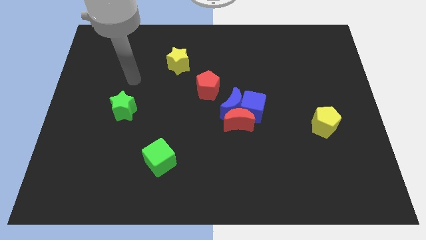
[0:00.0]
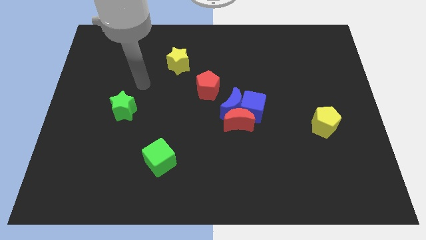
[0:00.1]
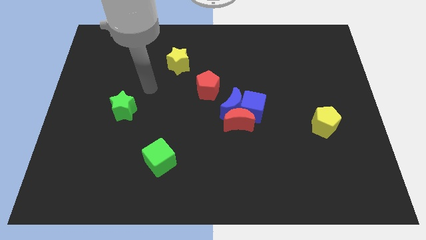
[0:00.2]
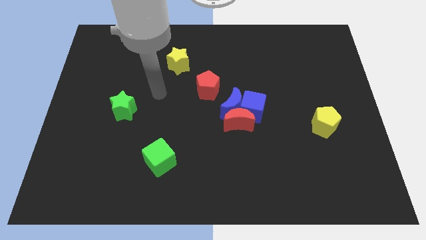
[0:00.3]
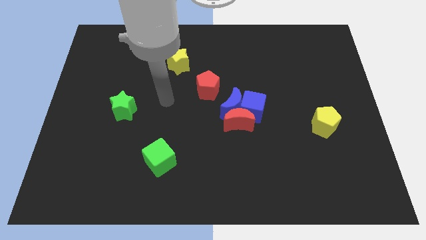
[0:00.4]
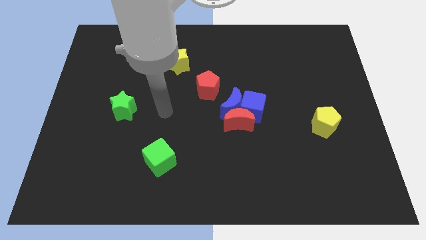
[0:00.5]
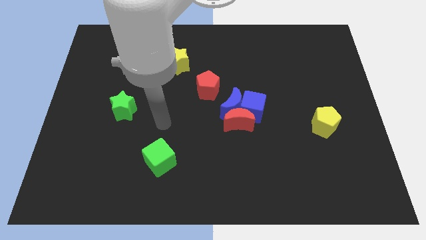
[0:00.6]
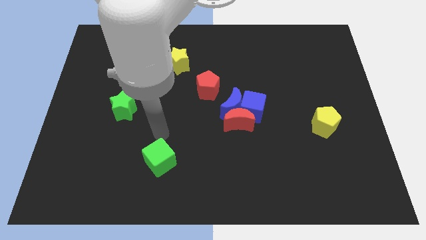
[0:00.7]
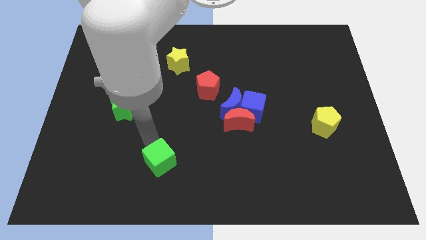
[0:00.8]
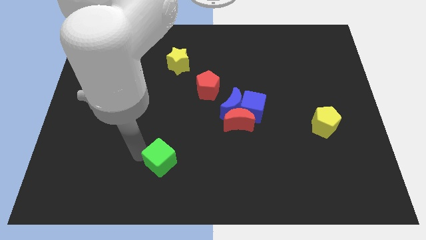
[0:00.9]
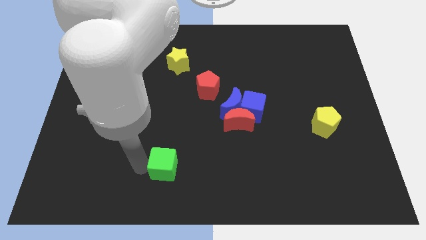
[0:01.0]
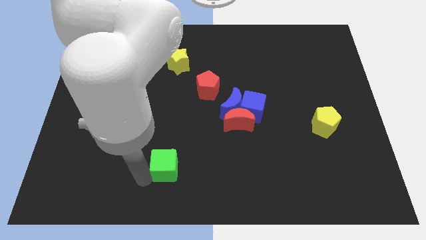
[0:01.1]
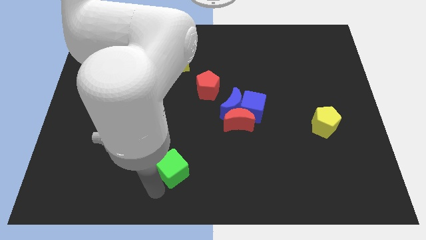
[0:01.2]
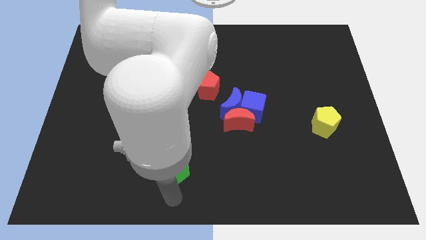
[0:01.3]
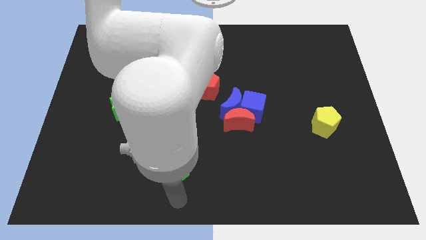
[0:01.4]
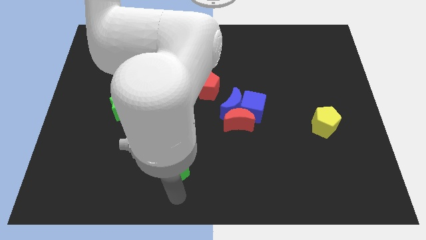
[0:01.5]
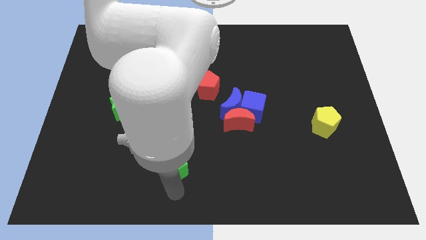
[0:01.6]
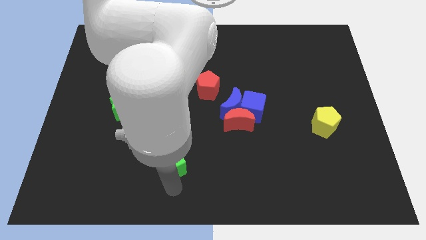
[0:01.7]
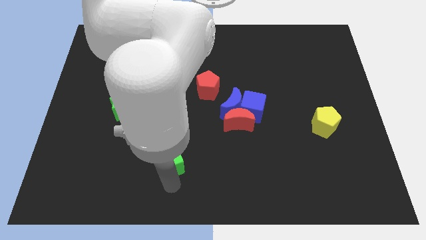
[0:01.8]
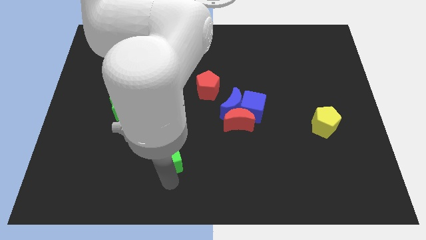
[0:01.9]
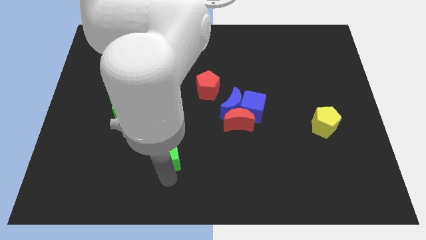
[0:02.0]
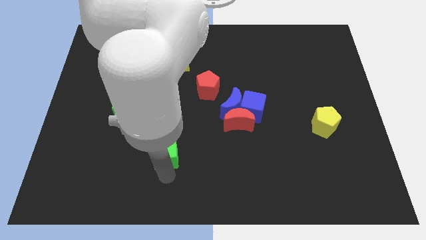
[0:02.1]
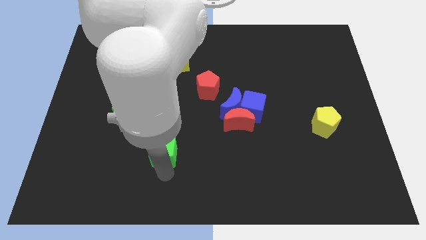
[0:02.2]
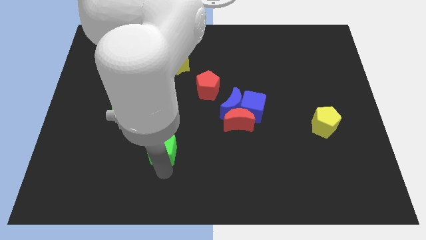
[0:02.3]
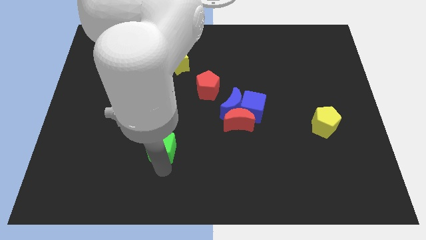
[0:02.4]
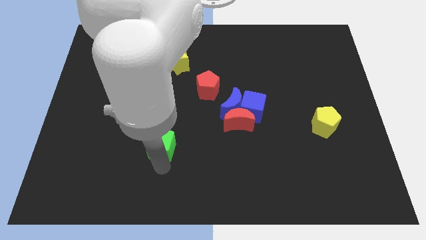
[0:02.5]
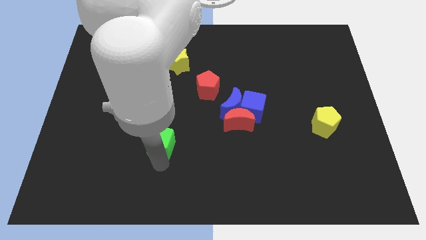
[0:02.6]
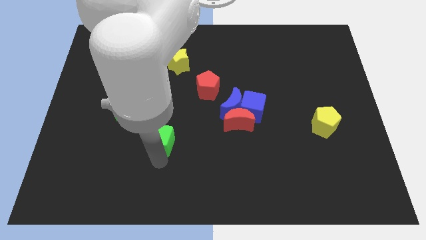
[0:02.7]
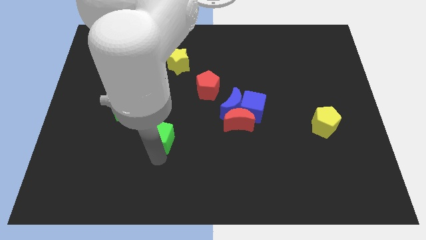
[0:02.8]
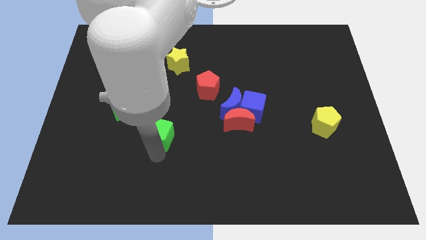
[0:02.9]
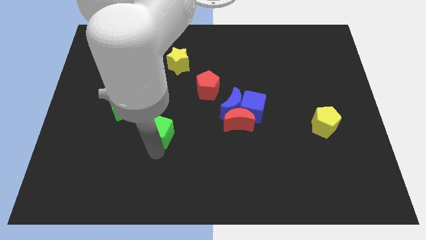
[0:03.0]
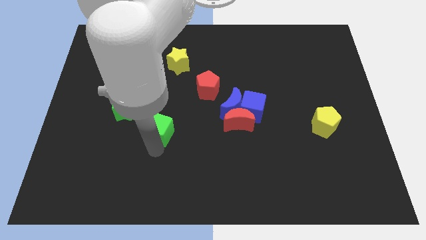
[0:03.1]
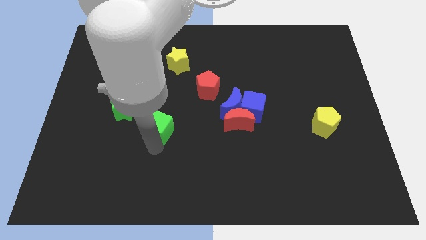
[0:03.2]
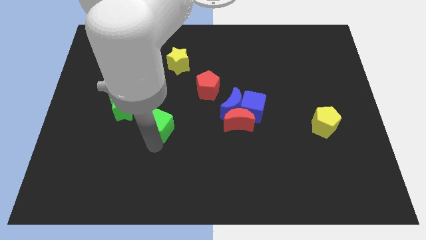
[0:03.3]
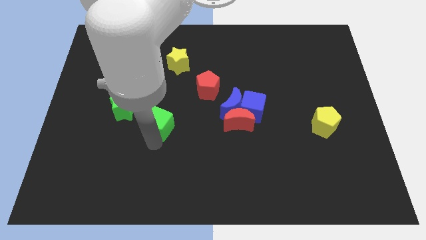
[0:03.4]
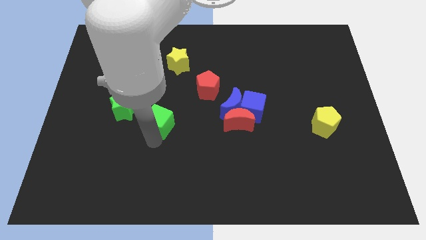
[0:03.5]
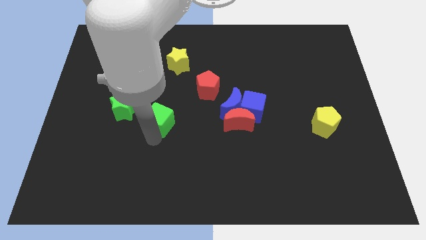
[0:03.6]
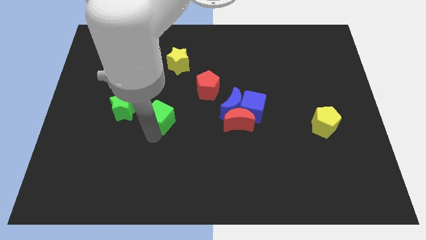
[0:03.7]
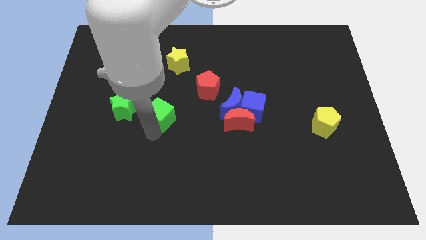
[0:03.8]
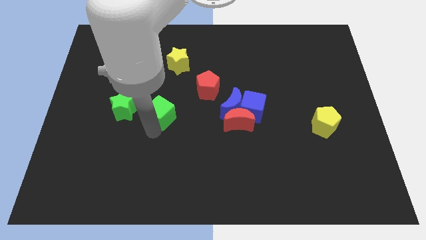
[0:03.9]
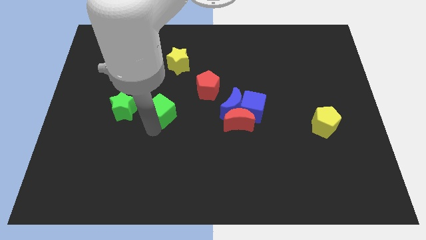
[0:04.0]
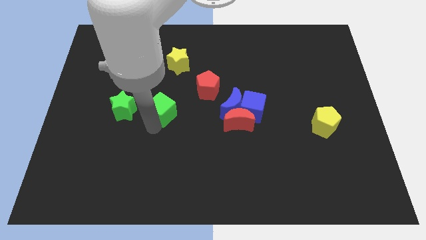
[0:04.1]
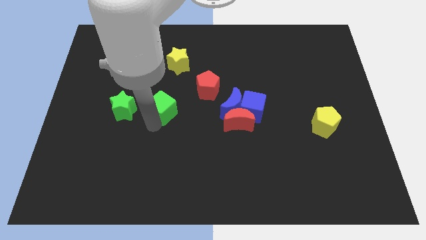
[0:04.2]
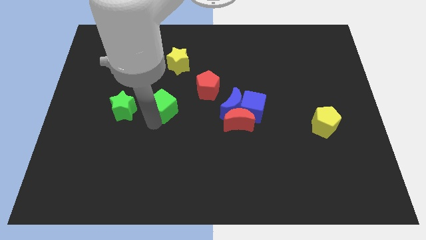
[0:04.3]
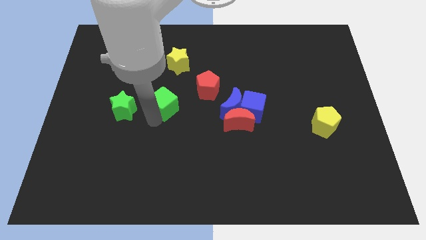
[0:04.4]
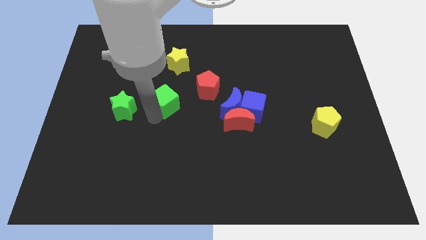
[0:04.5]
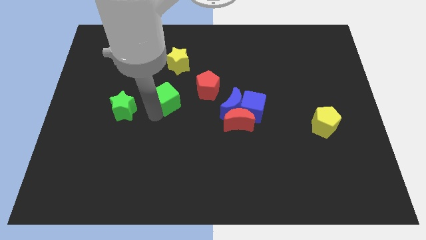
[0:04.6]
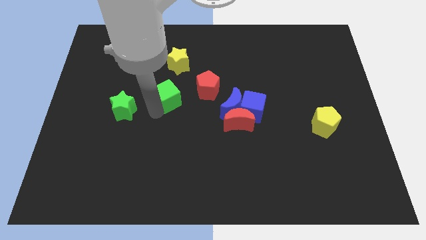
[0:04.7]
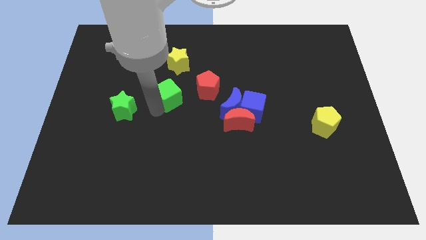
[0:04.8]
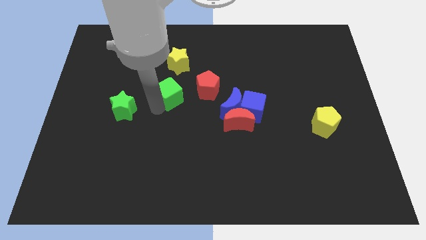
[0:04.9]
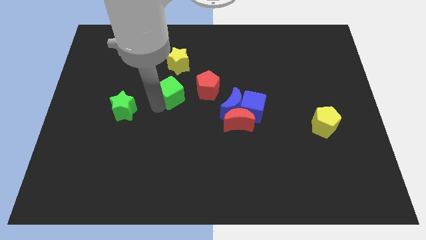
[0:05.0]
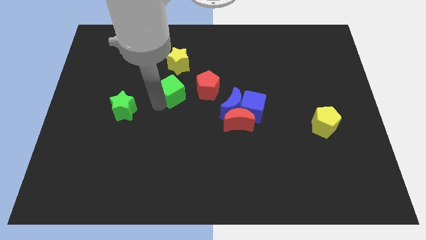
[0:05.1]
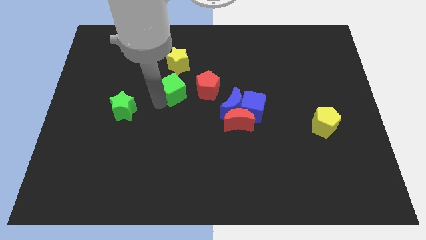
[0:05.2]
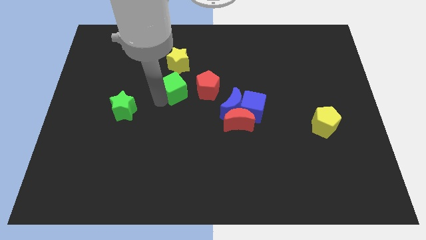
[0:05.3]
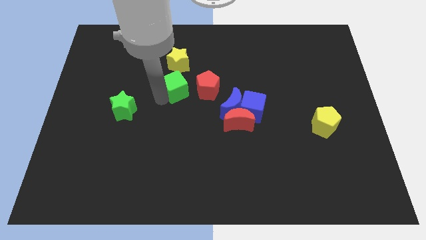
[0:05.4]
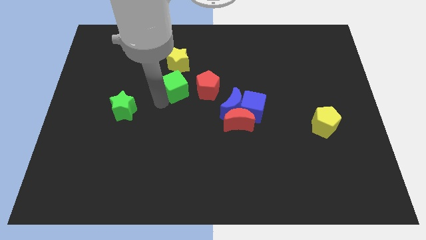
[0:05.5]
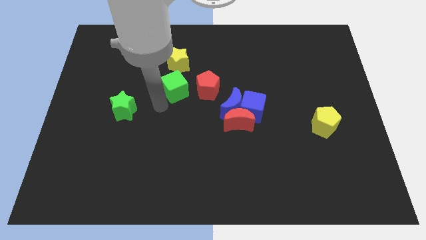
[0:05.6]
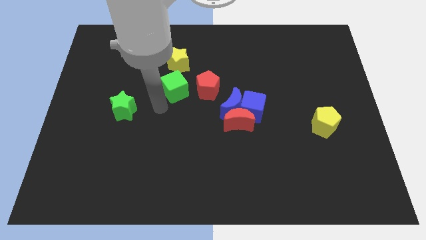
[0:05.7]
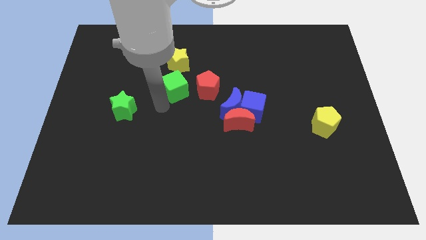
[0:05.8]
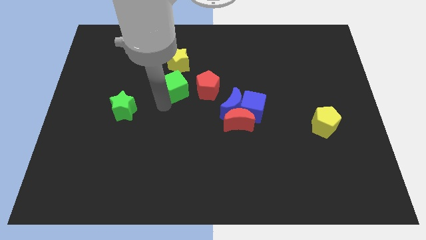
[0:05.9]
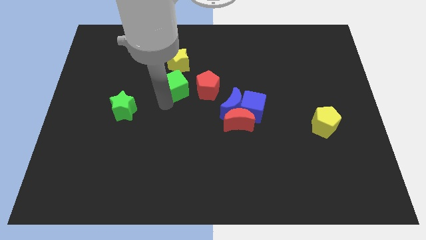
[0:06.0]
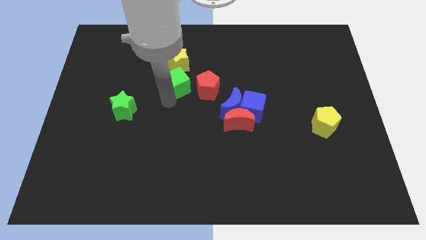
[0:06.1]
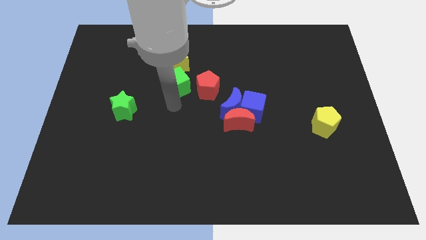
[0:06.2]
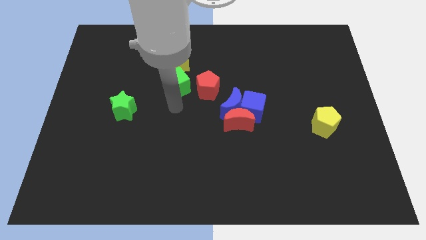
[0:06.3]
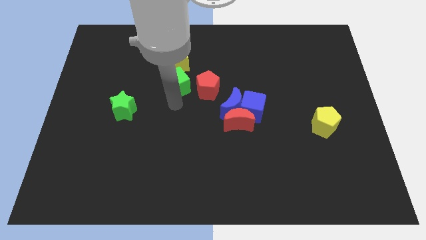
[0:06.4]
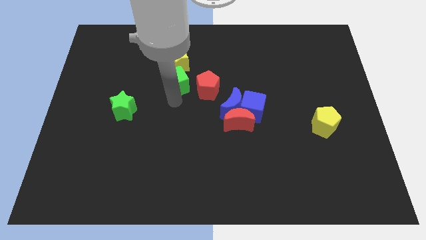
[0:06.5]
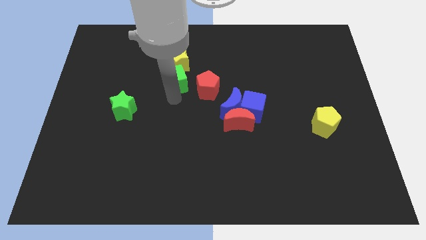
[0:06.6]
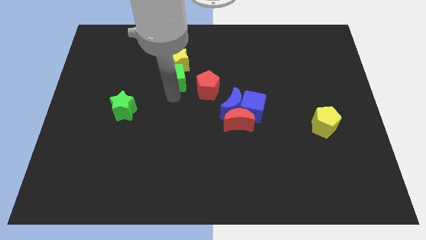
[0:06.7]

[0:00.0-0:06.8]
slide the green cube to the yellow star

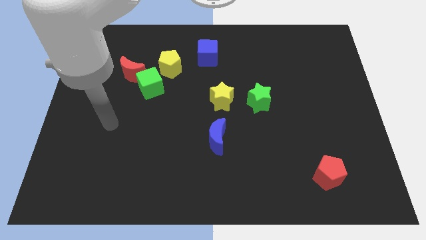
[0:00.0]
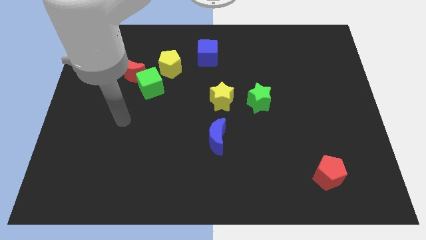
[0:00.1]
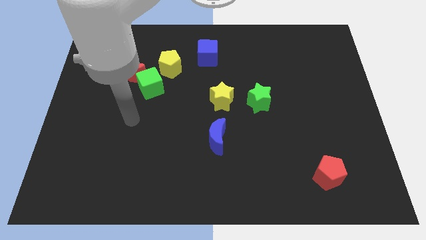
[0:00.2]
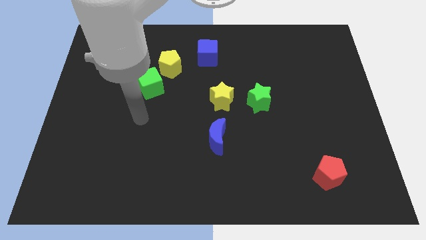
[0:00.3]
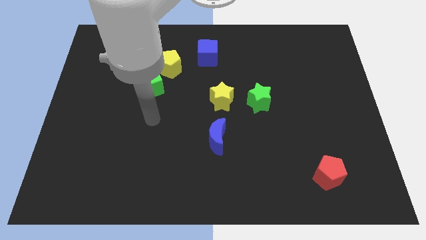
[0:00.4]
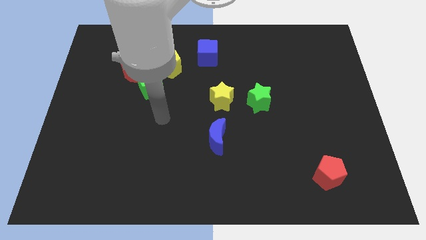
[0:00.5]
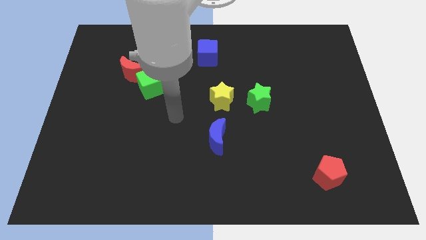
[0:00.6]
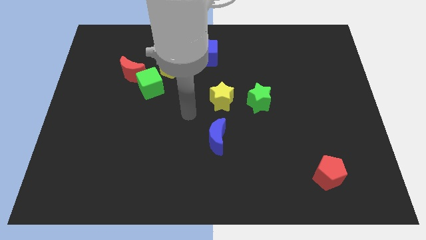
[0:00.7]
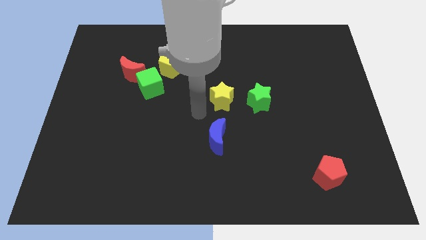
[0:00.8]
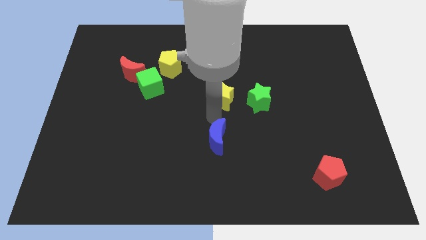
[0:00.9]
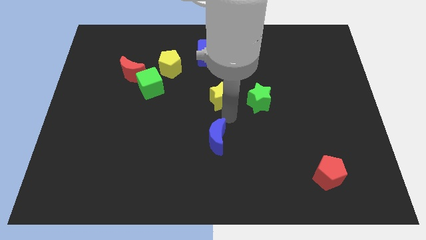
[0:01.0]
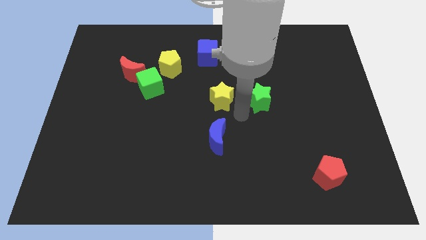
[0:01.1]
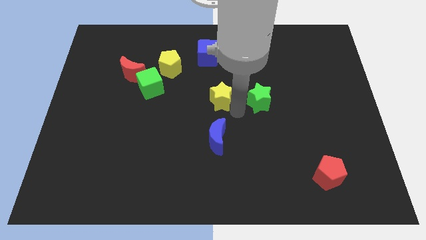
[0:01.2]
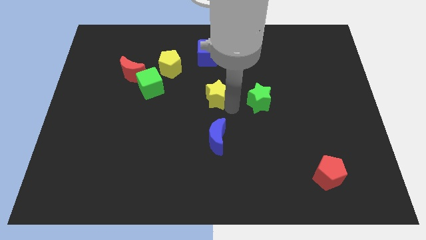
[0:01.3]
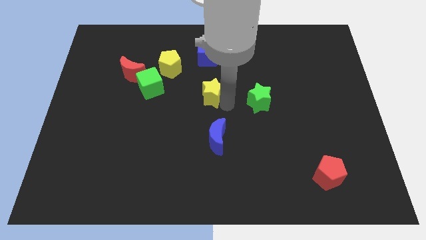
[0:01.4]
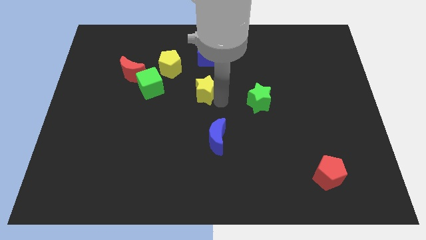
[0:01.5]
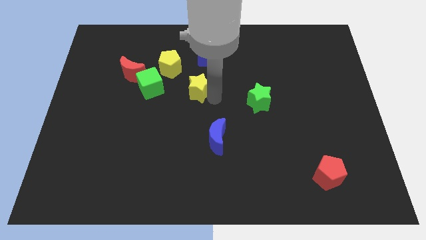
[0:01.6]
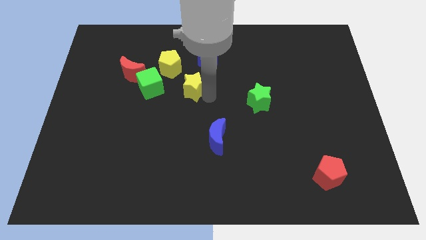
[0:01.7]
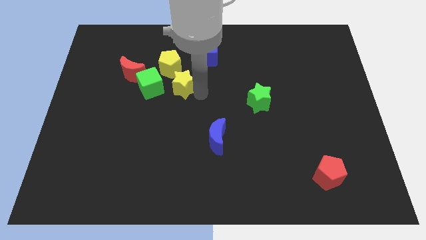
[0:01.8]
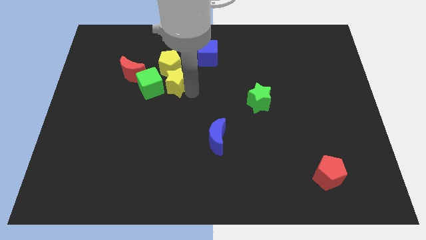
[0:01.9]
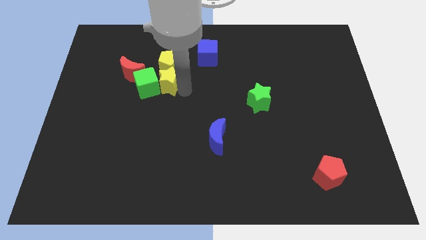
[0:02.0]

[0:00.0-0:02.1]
push the yellow star next to the yellow pentagon
